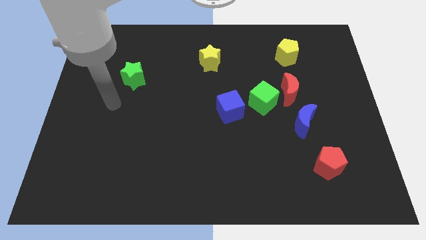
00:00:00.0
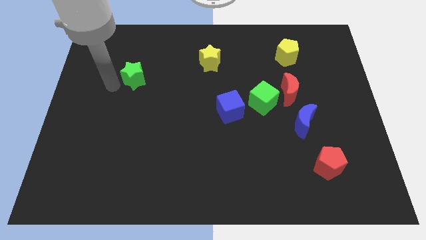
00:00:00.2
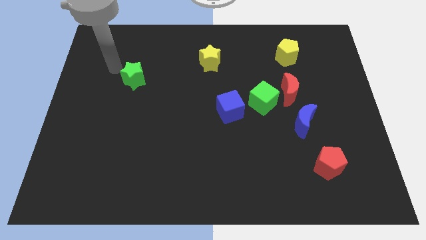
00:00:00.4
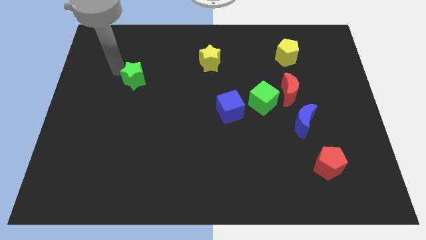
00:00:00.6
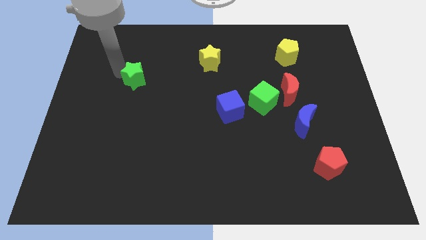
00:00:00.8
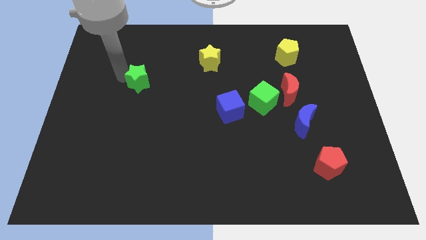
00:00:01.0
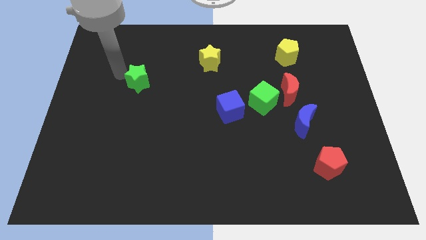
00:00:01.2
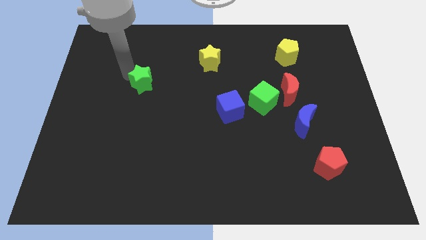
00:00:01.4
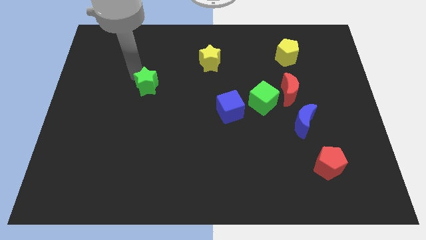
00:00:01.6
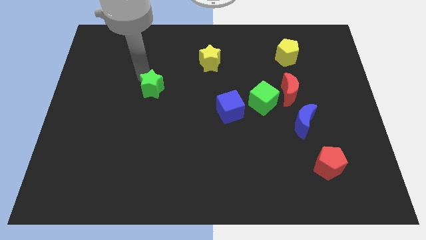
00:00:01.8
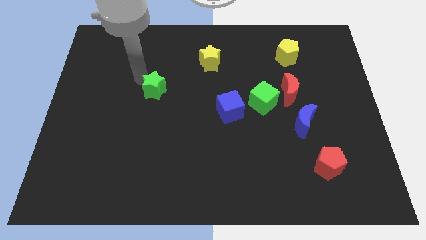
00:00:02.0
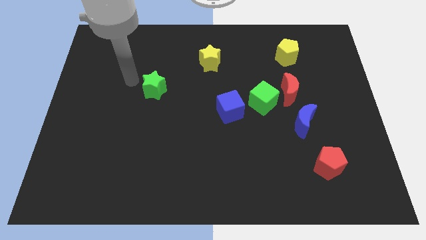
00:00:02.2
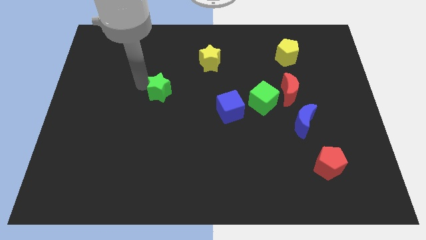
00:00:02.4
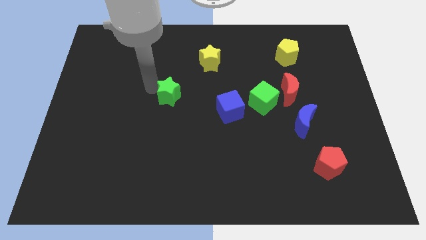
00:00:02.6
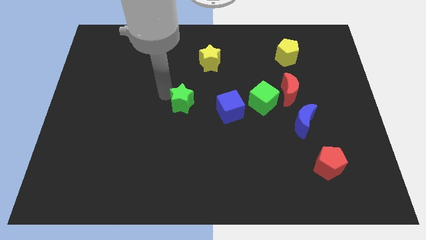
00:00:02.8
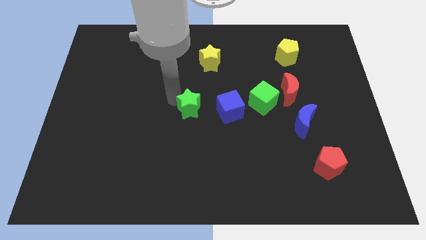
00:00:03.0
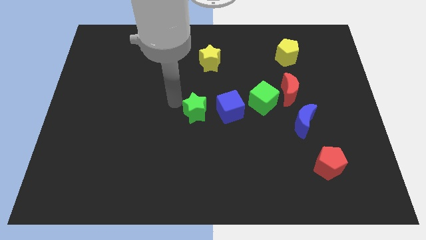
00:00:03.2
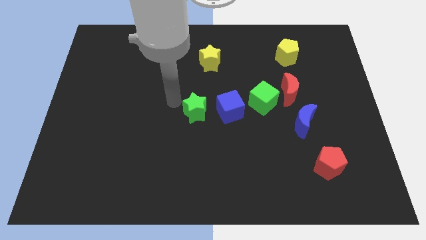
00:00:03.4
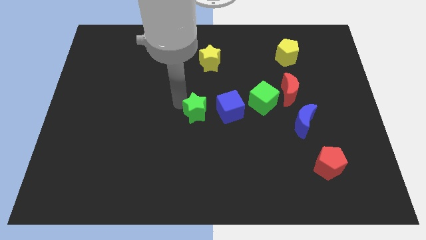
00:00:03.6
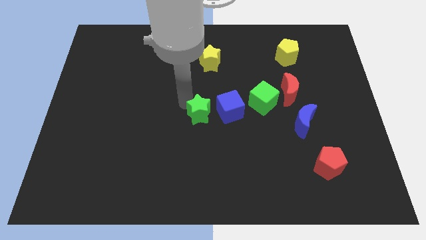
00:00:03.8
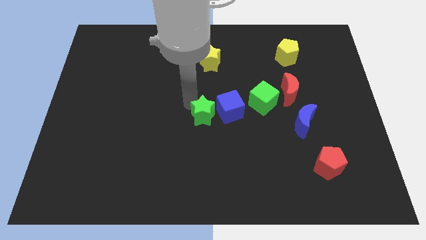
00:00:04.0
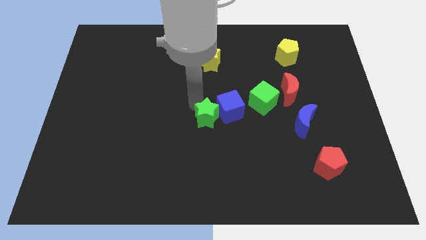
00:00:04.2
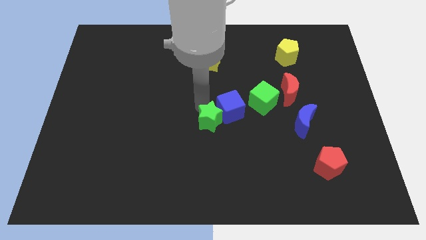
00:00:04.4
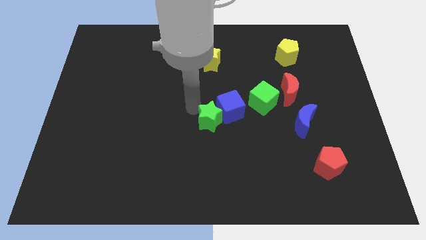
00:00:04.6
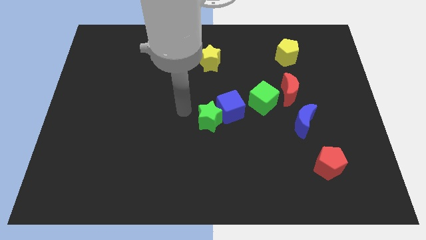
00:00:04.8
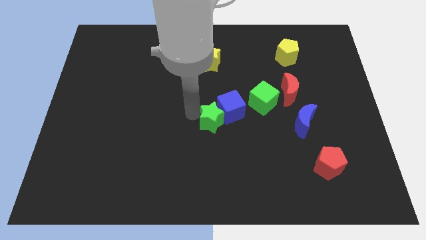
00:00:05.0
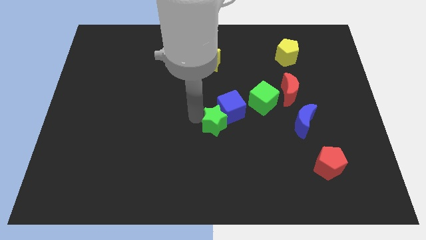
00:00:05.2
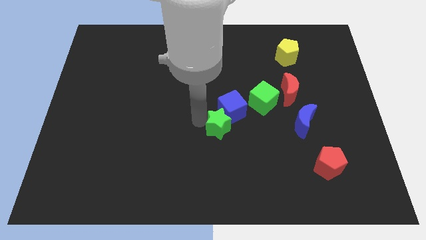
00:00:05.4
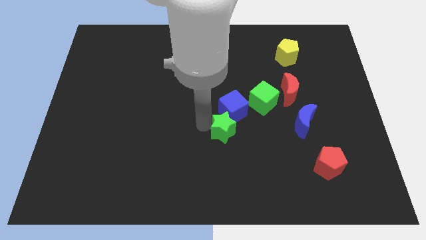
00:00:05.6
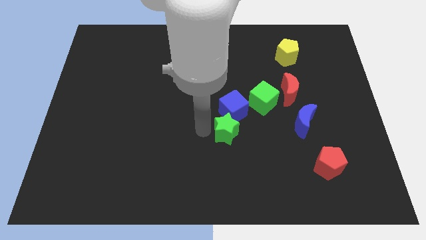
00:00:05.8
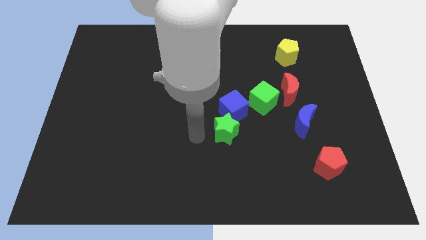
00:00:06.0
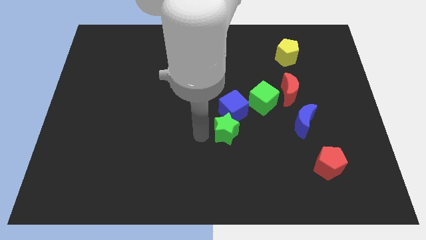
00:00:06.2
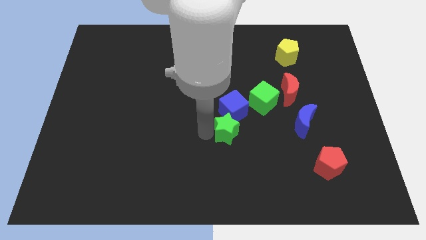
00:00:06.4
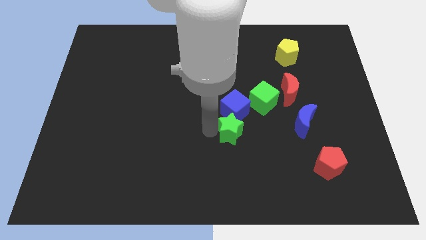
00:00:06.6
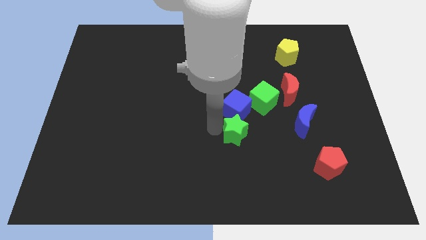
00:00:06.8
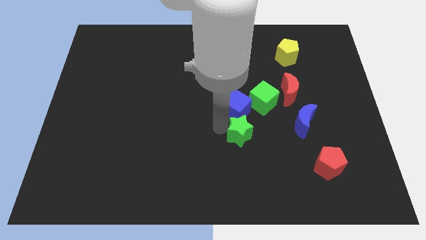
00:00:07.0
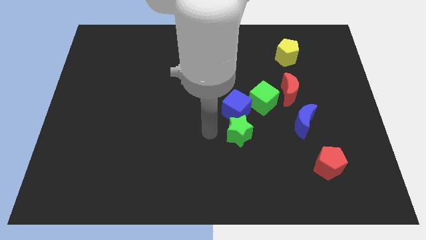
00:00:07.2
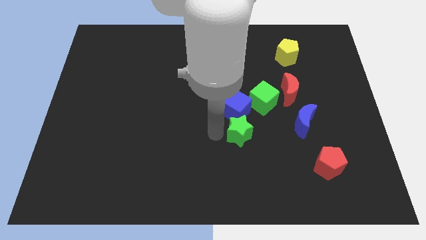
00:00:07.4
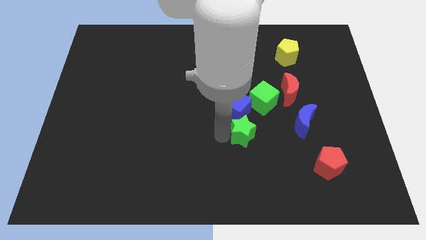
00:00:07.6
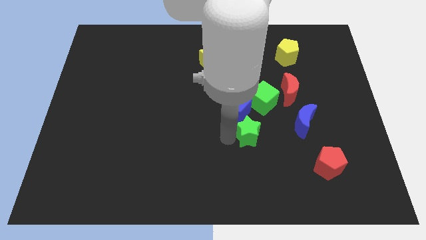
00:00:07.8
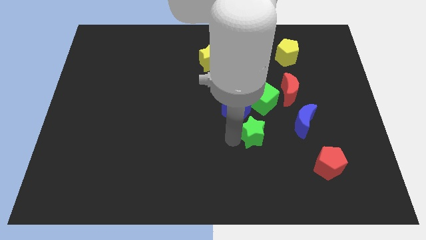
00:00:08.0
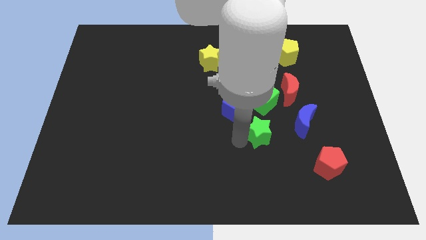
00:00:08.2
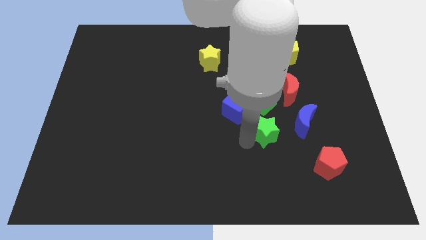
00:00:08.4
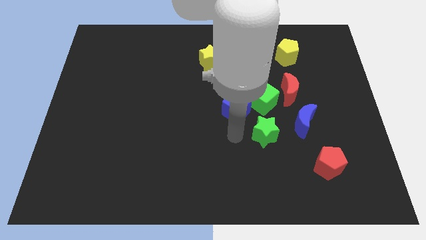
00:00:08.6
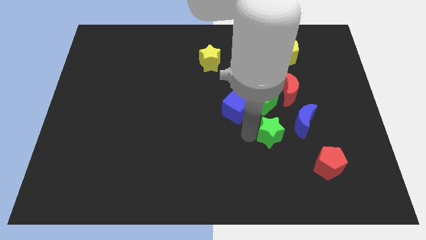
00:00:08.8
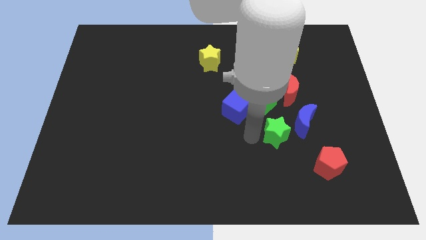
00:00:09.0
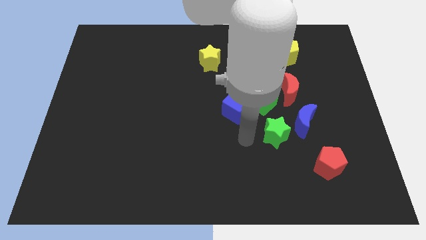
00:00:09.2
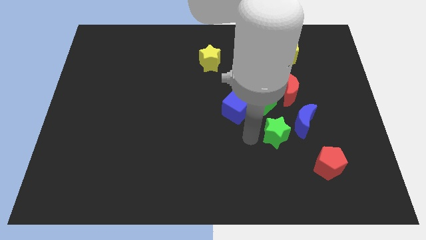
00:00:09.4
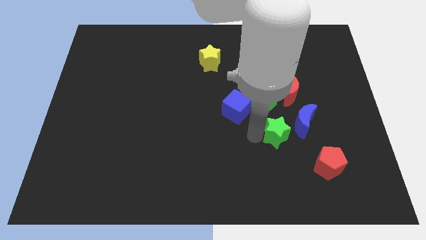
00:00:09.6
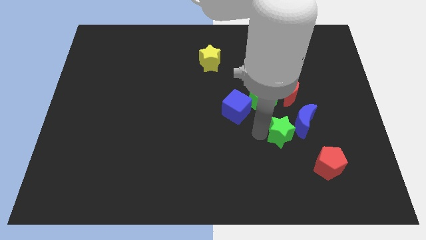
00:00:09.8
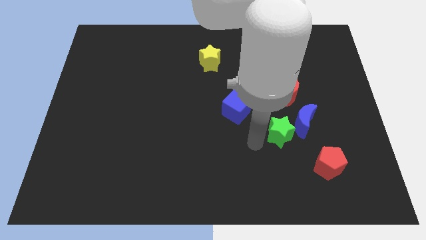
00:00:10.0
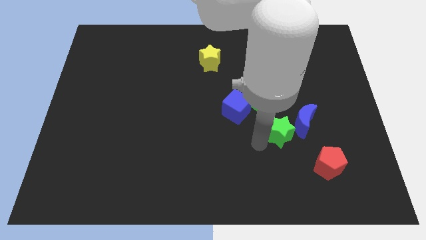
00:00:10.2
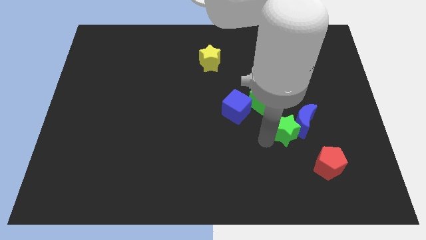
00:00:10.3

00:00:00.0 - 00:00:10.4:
push the green star close to the blue moon

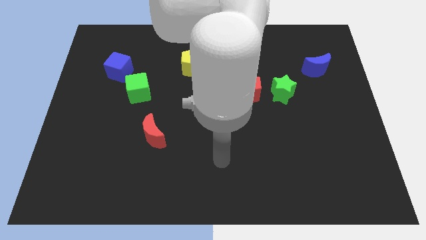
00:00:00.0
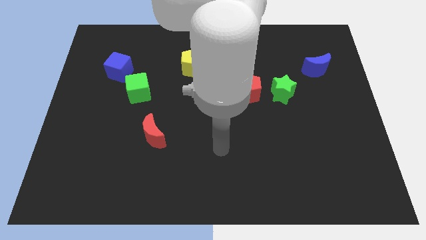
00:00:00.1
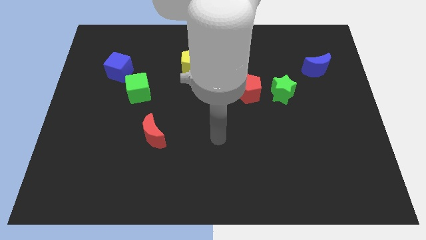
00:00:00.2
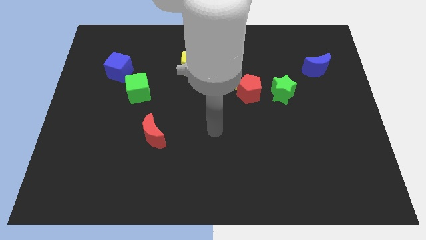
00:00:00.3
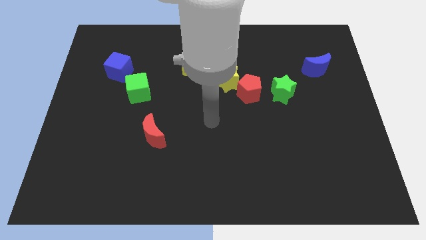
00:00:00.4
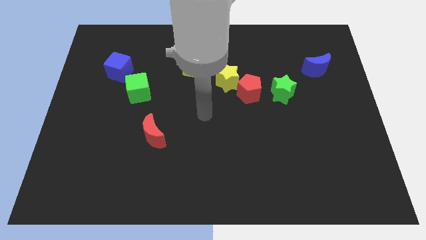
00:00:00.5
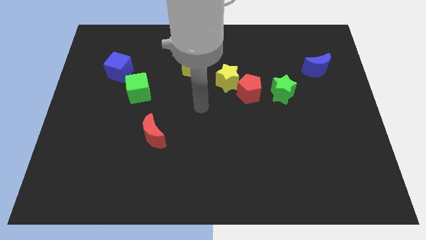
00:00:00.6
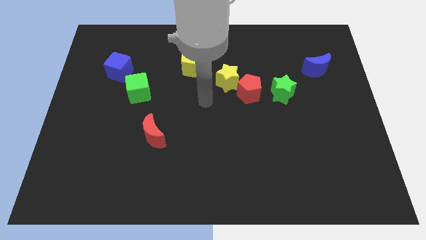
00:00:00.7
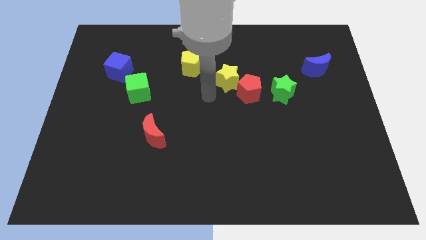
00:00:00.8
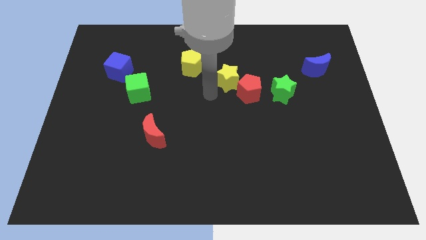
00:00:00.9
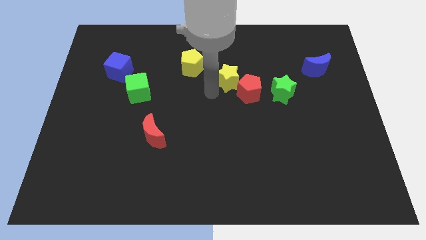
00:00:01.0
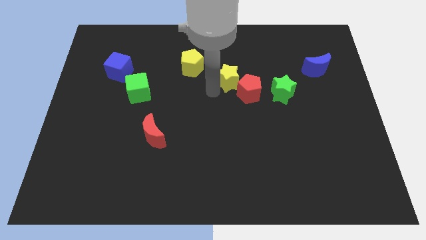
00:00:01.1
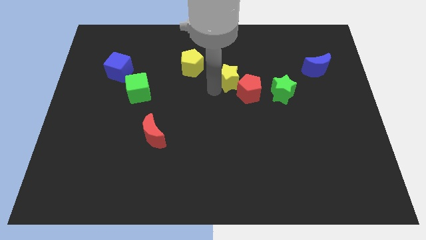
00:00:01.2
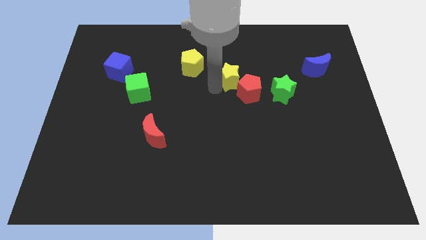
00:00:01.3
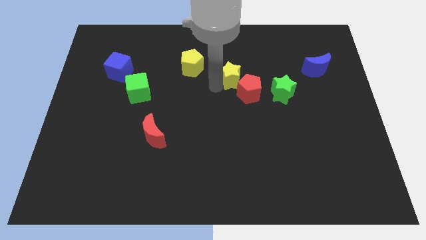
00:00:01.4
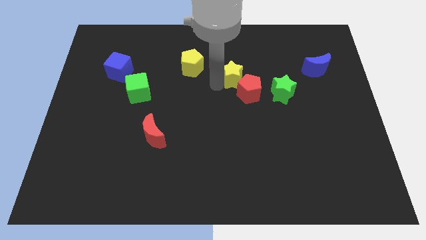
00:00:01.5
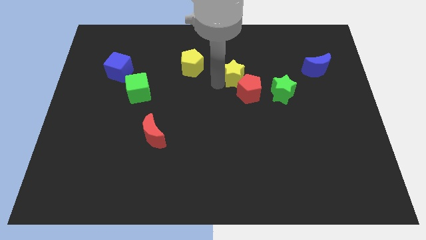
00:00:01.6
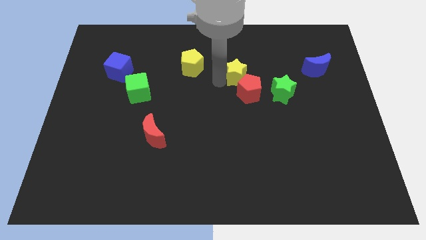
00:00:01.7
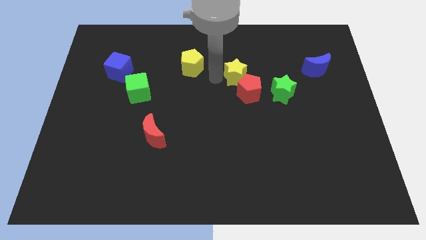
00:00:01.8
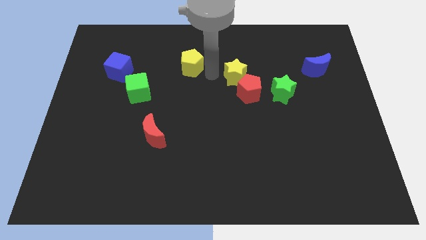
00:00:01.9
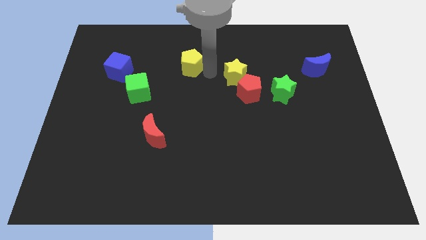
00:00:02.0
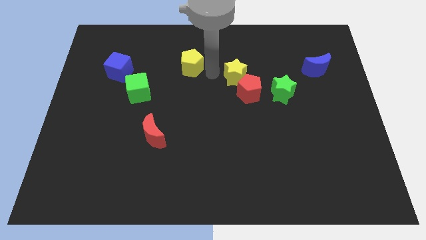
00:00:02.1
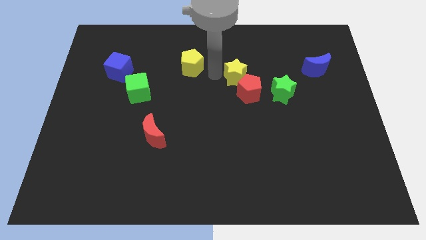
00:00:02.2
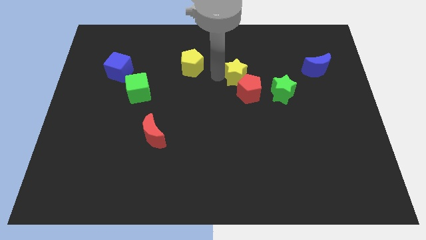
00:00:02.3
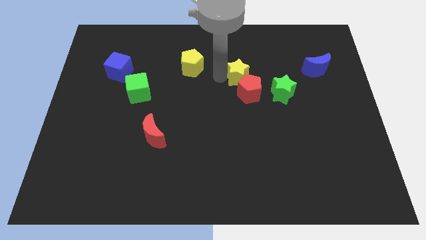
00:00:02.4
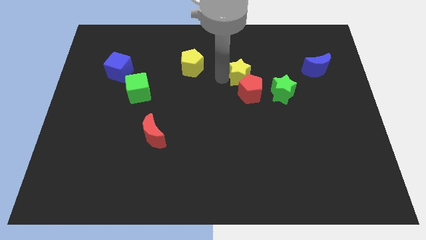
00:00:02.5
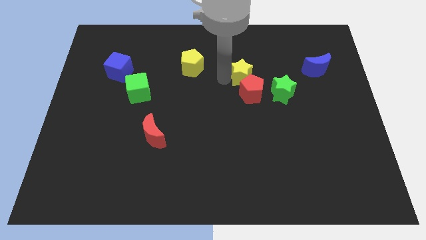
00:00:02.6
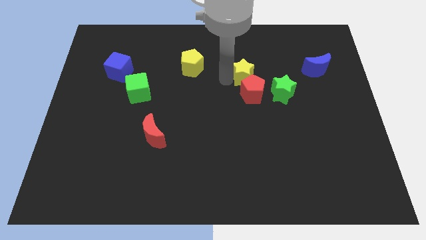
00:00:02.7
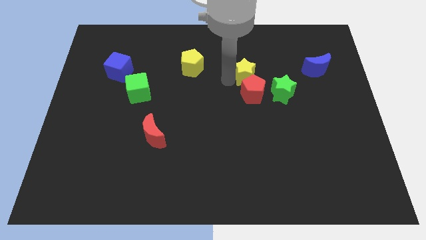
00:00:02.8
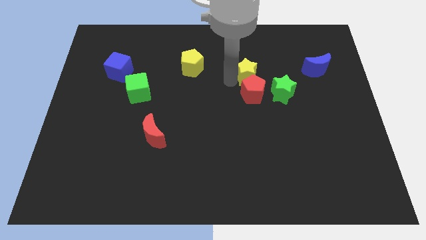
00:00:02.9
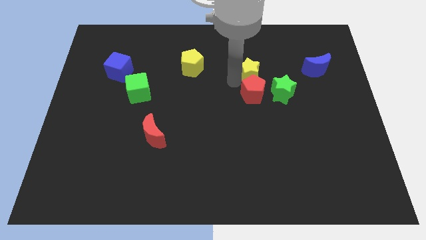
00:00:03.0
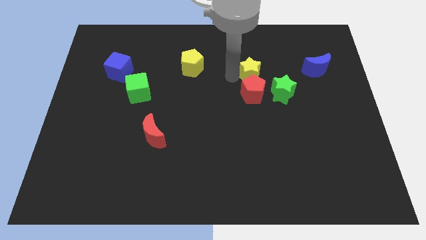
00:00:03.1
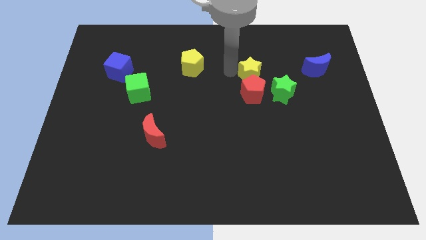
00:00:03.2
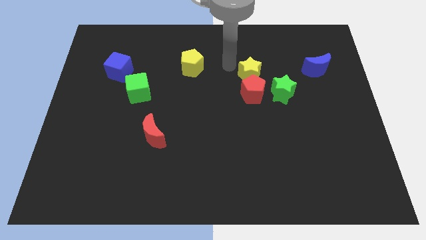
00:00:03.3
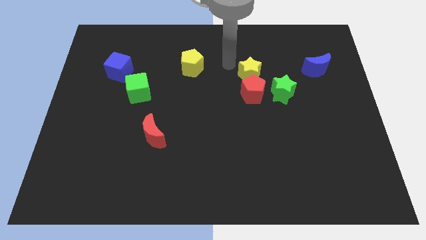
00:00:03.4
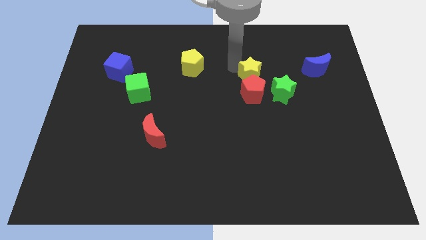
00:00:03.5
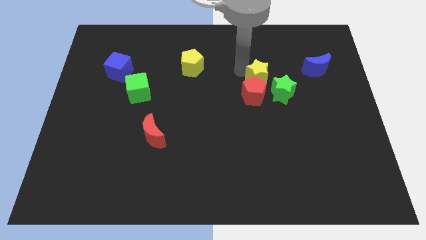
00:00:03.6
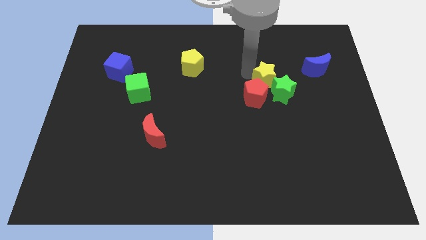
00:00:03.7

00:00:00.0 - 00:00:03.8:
put the yellow star towards the green star
